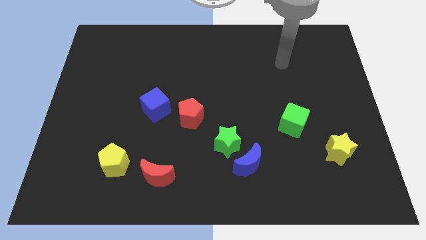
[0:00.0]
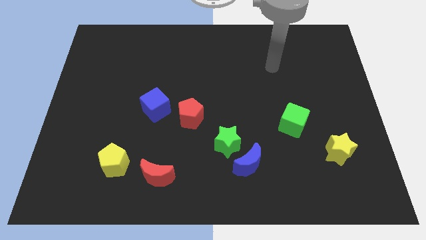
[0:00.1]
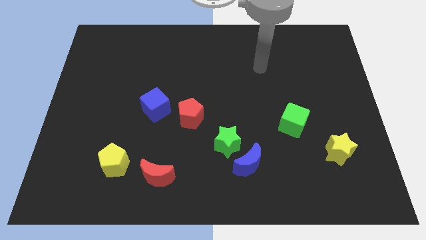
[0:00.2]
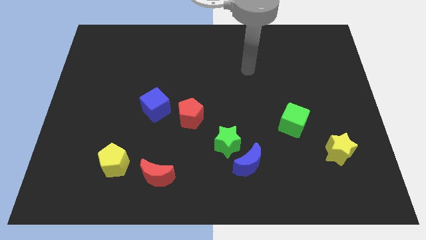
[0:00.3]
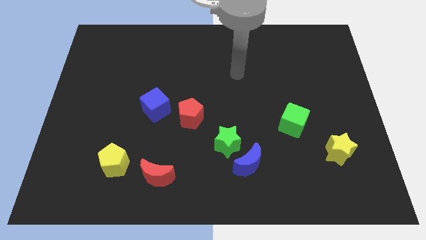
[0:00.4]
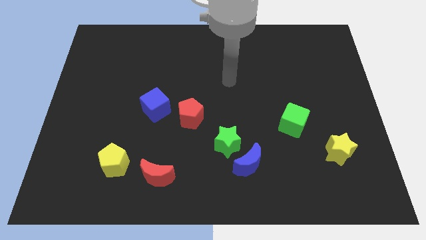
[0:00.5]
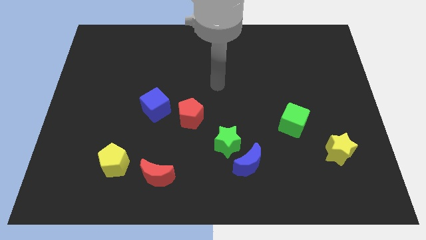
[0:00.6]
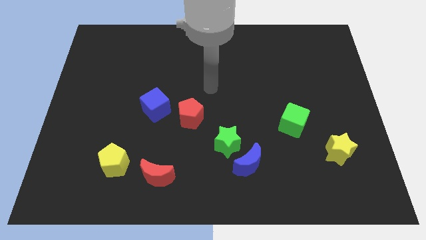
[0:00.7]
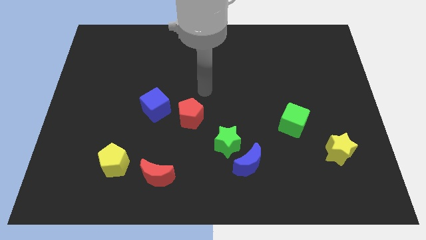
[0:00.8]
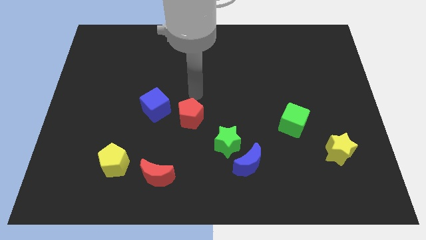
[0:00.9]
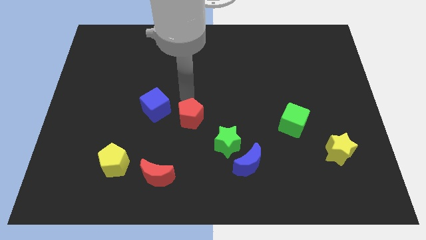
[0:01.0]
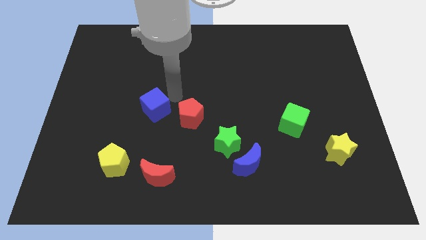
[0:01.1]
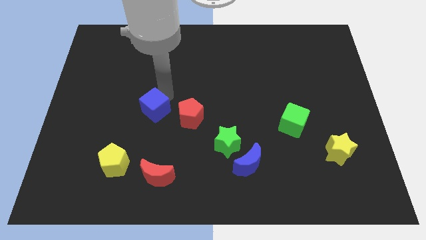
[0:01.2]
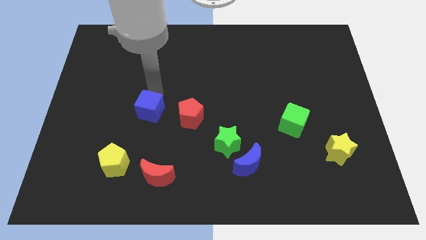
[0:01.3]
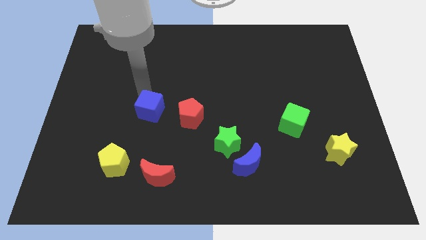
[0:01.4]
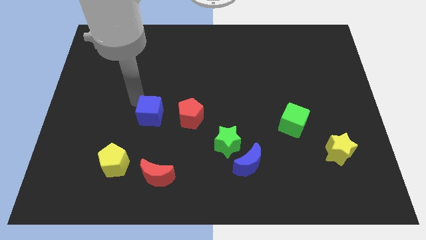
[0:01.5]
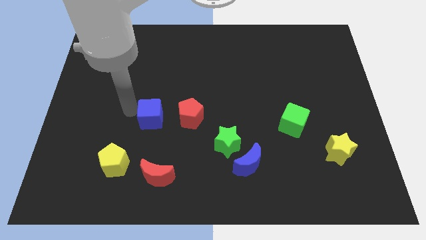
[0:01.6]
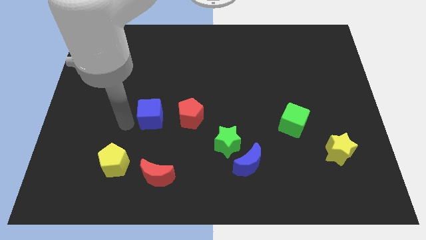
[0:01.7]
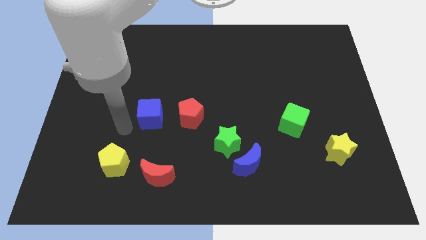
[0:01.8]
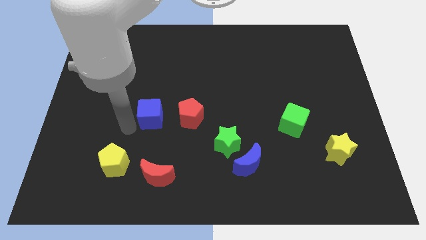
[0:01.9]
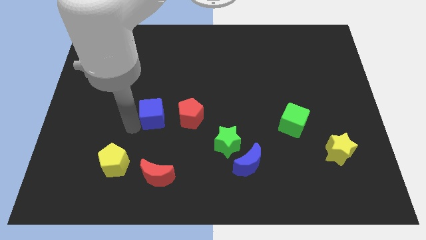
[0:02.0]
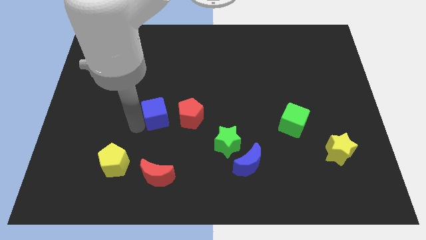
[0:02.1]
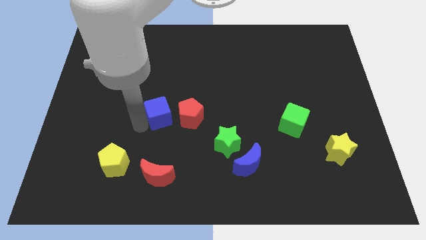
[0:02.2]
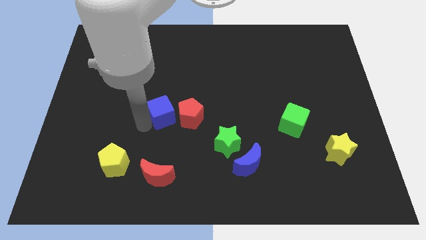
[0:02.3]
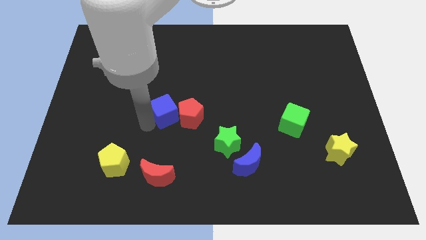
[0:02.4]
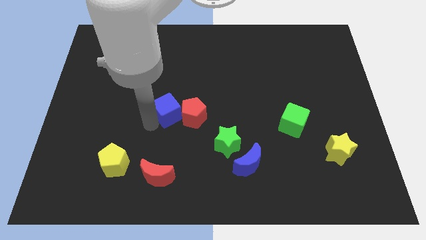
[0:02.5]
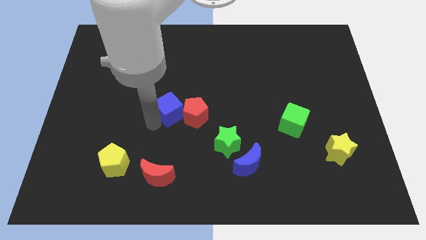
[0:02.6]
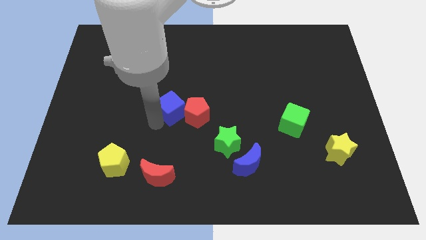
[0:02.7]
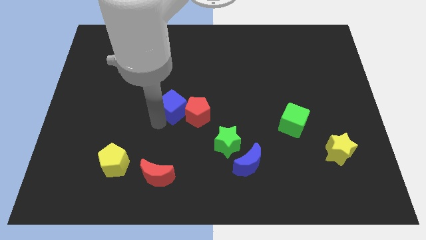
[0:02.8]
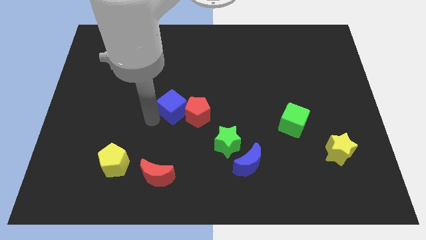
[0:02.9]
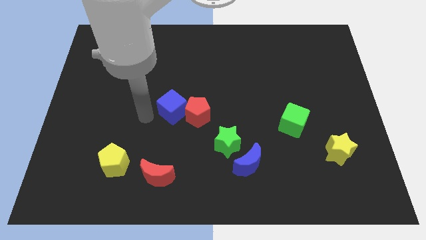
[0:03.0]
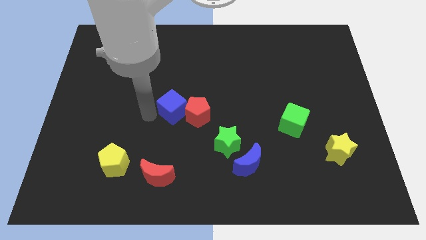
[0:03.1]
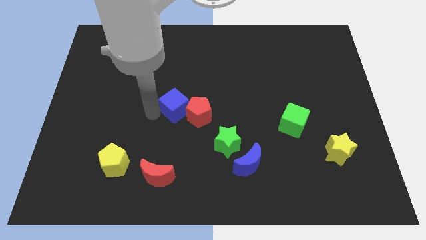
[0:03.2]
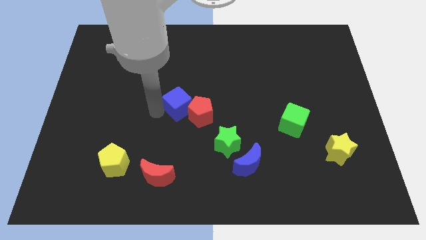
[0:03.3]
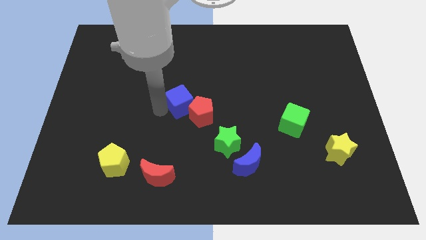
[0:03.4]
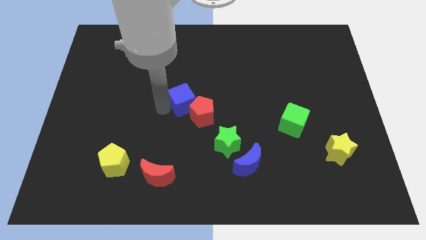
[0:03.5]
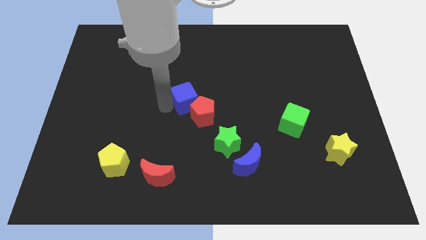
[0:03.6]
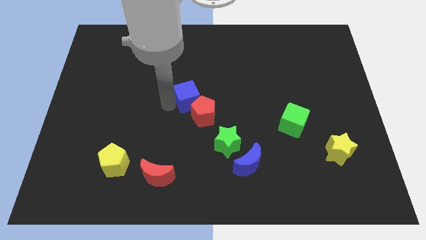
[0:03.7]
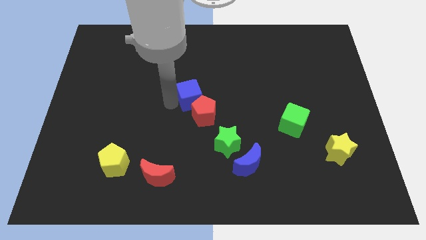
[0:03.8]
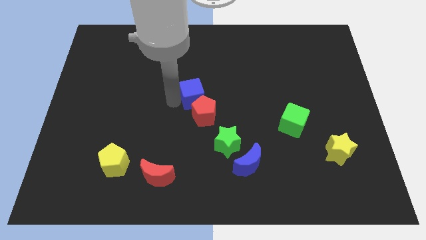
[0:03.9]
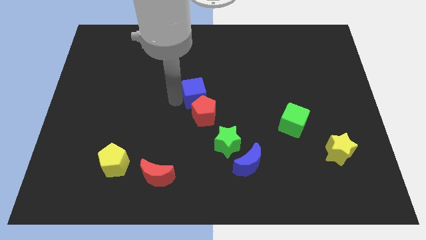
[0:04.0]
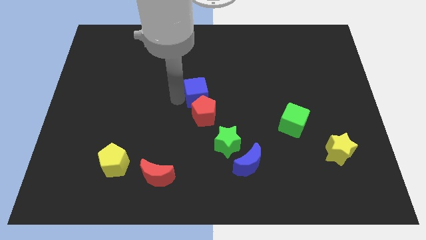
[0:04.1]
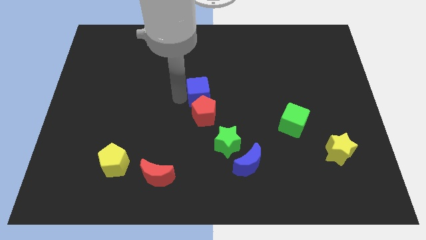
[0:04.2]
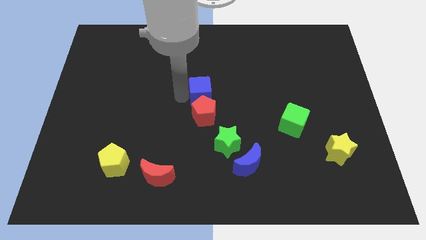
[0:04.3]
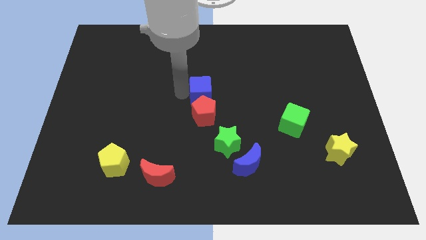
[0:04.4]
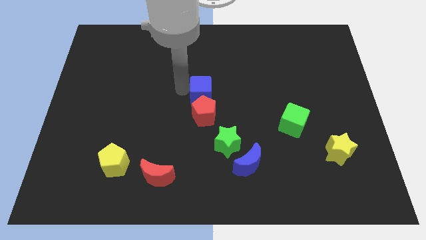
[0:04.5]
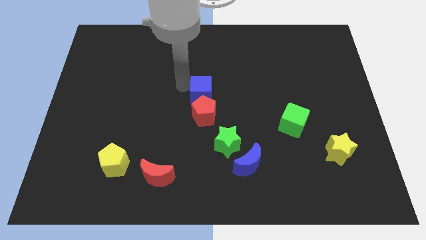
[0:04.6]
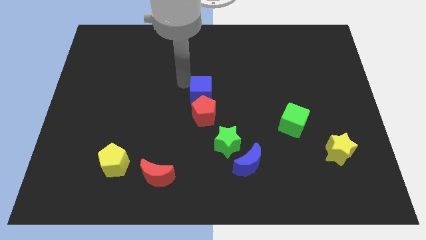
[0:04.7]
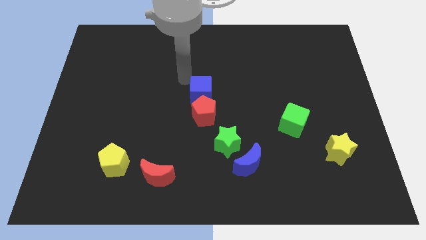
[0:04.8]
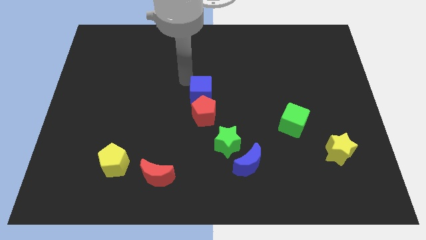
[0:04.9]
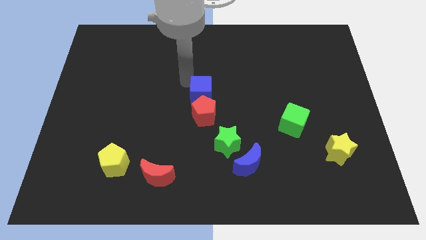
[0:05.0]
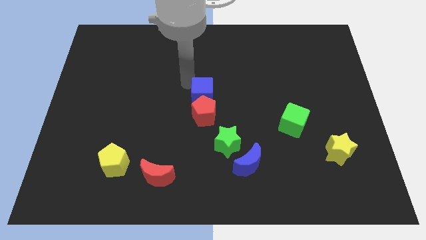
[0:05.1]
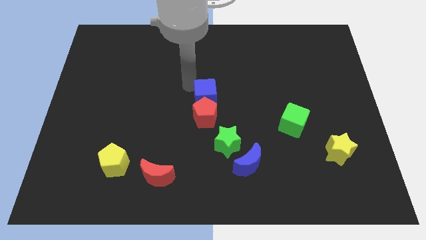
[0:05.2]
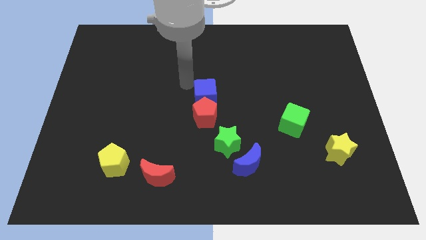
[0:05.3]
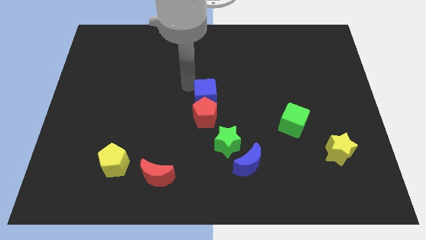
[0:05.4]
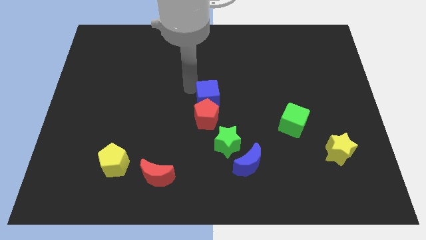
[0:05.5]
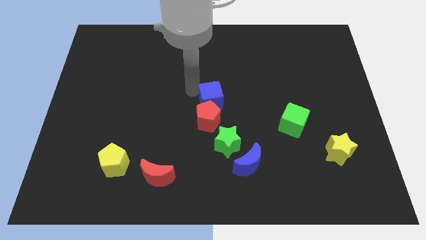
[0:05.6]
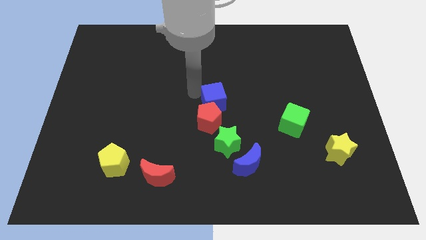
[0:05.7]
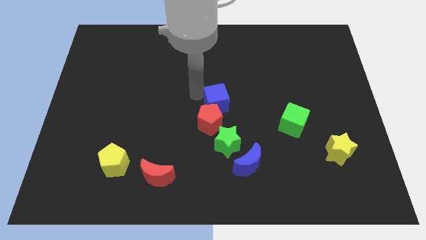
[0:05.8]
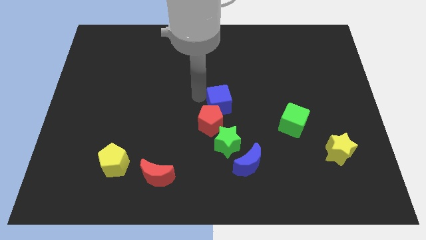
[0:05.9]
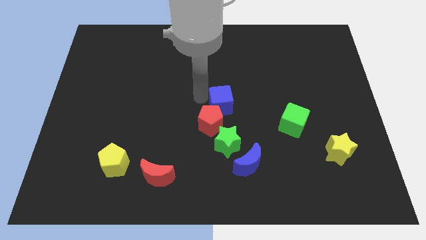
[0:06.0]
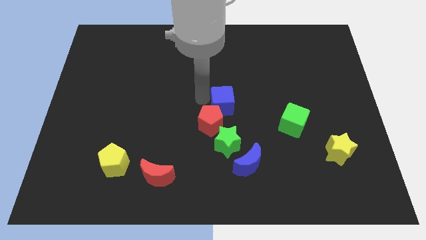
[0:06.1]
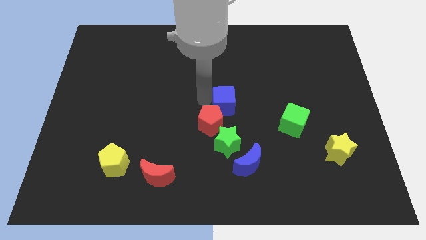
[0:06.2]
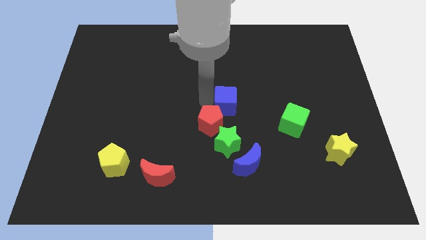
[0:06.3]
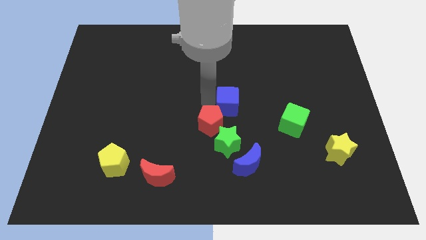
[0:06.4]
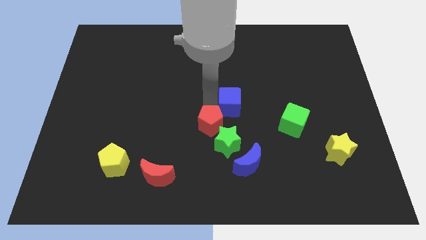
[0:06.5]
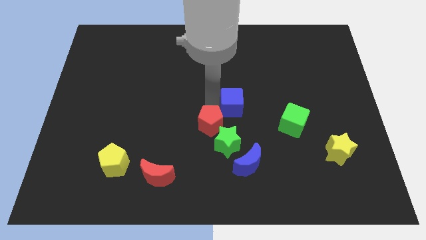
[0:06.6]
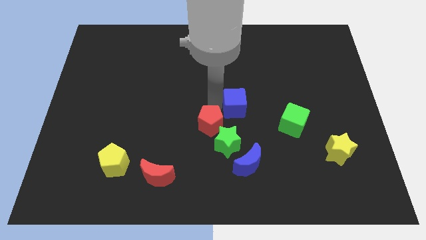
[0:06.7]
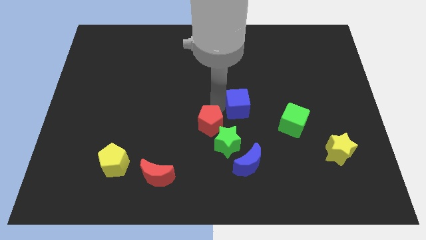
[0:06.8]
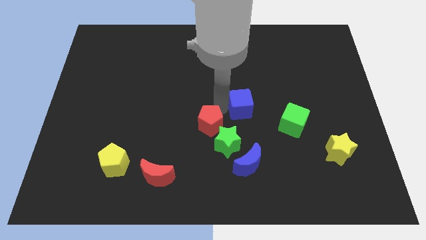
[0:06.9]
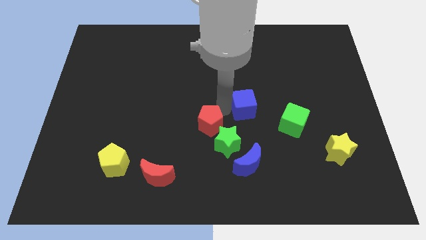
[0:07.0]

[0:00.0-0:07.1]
push the blue cube to the top right of the green star
